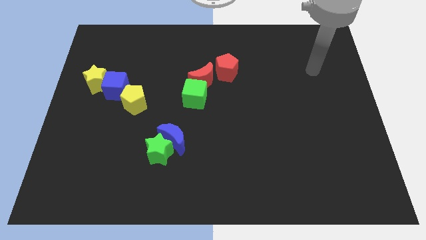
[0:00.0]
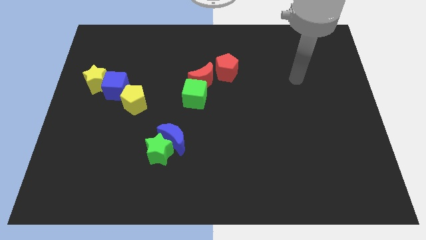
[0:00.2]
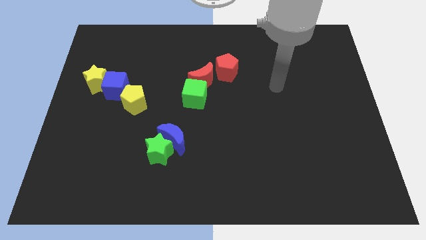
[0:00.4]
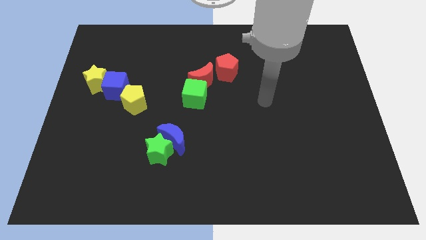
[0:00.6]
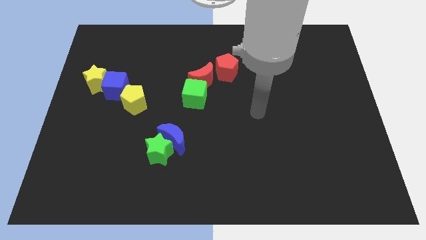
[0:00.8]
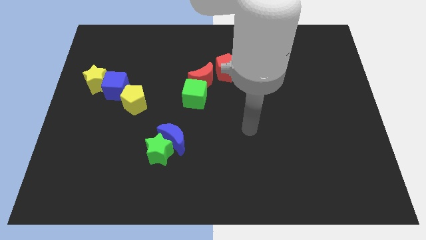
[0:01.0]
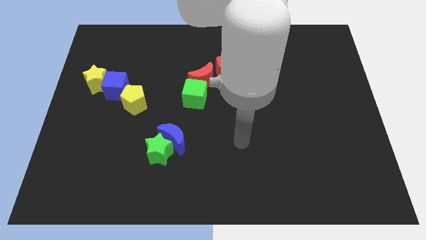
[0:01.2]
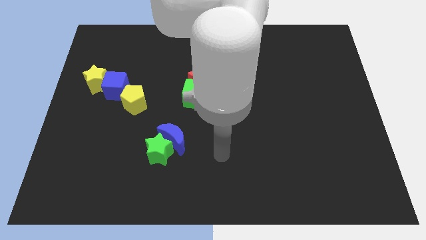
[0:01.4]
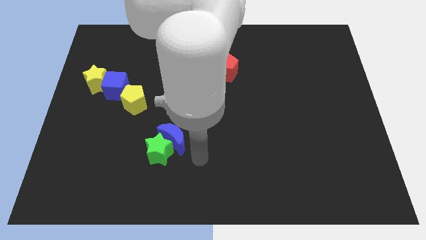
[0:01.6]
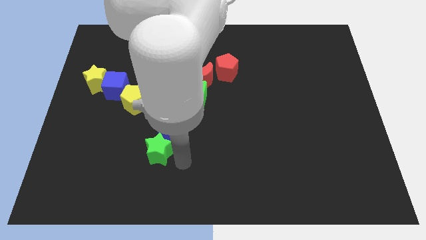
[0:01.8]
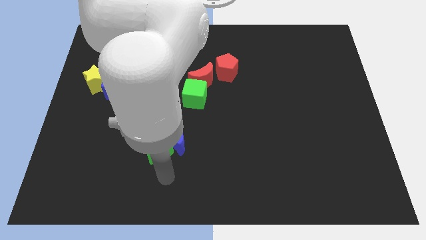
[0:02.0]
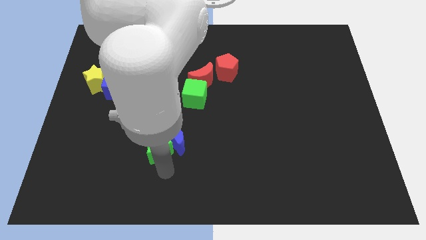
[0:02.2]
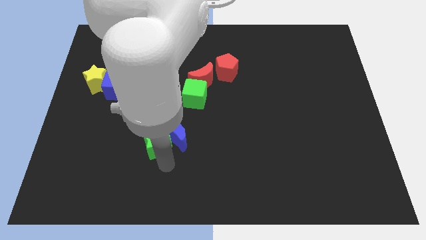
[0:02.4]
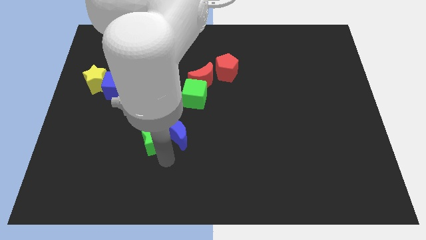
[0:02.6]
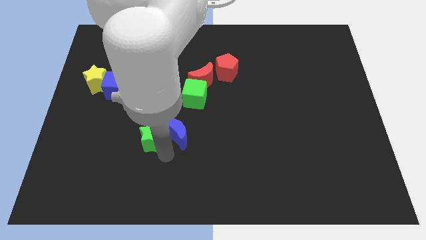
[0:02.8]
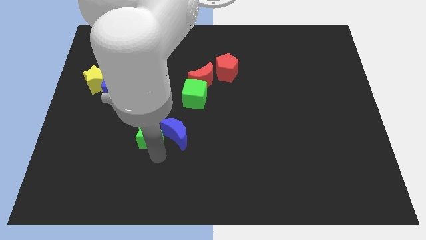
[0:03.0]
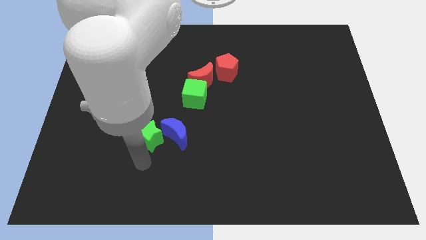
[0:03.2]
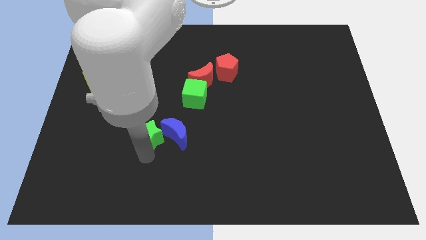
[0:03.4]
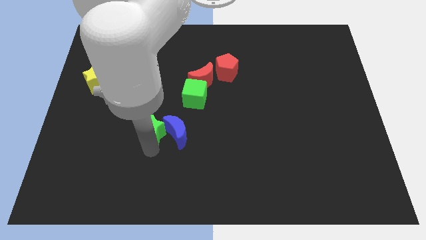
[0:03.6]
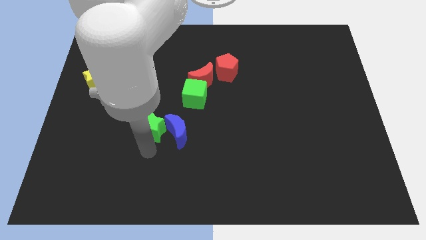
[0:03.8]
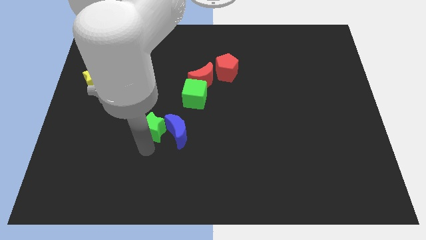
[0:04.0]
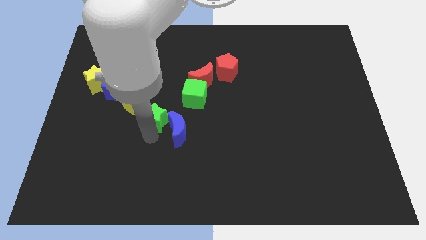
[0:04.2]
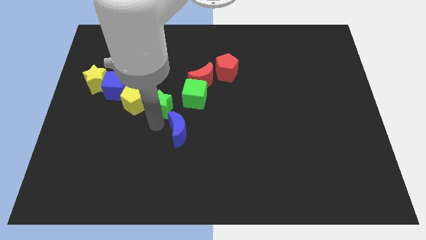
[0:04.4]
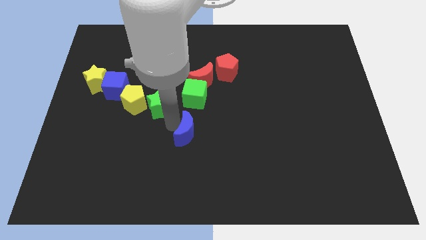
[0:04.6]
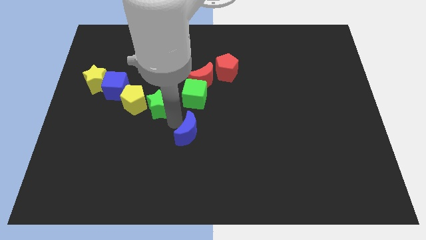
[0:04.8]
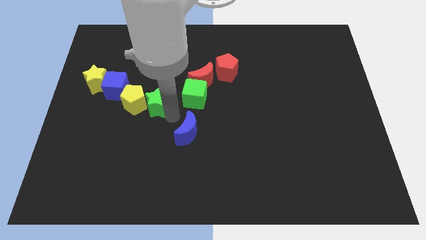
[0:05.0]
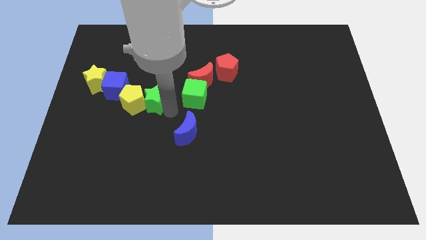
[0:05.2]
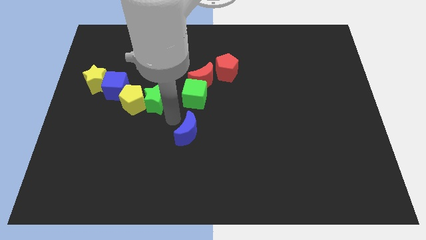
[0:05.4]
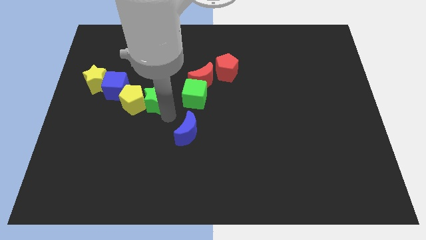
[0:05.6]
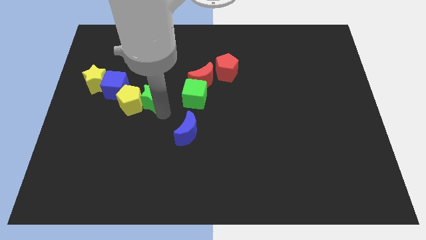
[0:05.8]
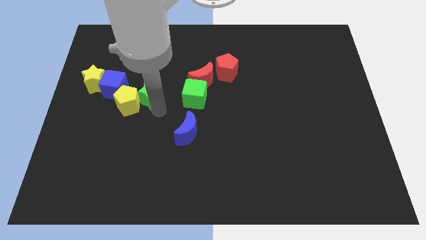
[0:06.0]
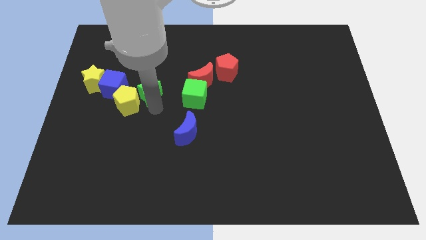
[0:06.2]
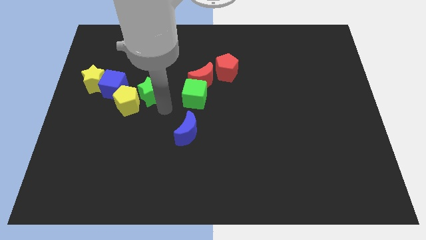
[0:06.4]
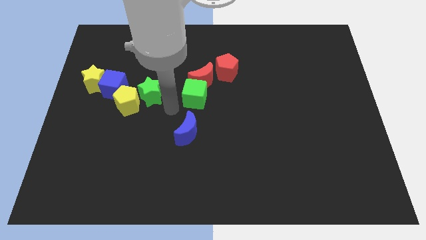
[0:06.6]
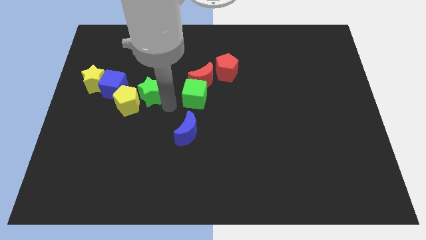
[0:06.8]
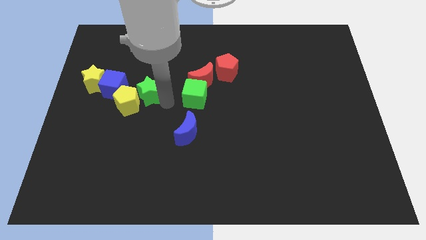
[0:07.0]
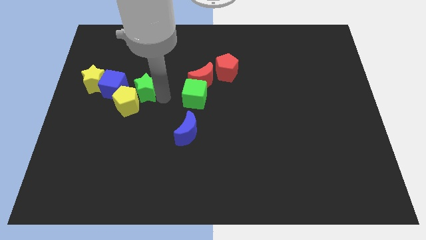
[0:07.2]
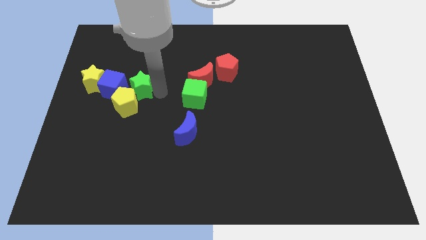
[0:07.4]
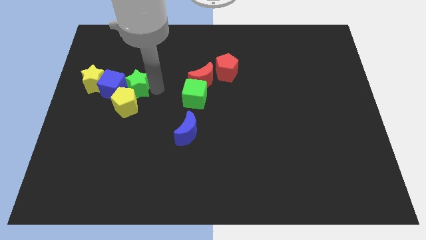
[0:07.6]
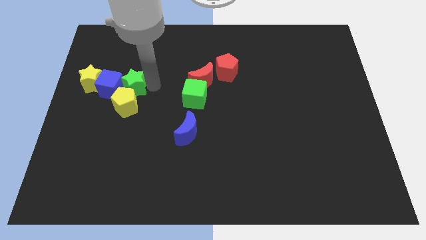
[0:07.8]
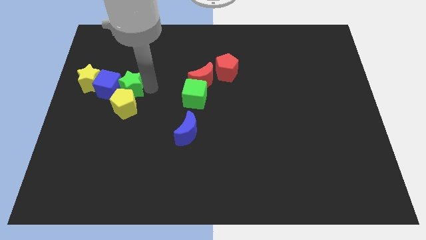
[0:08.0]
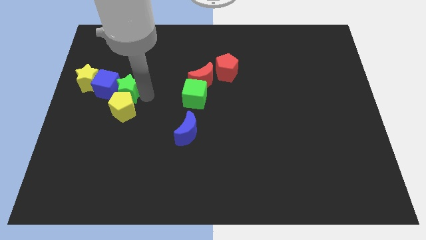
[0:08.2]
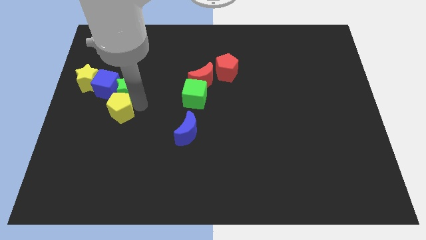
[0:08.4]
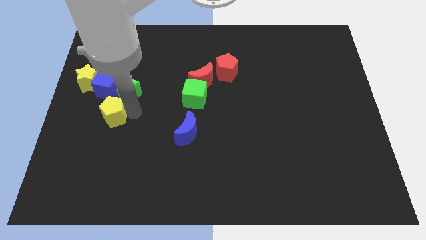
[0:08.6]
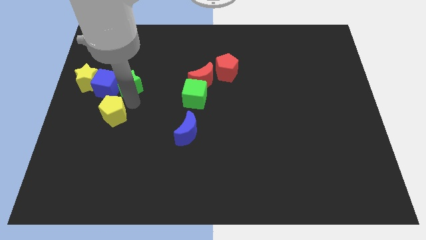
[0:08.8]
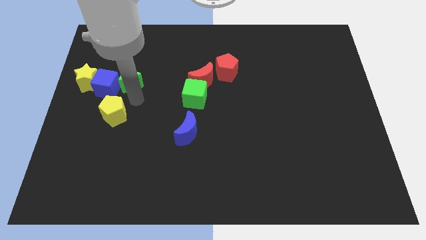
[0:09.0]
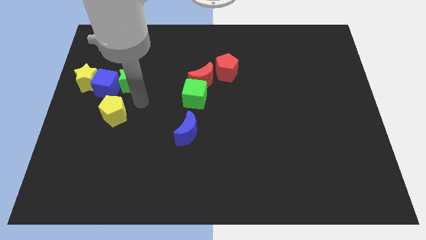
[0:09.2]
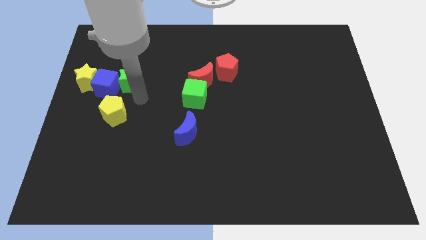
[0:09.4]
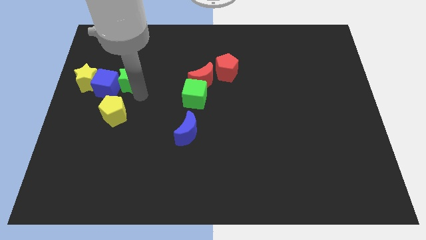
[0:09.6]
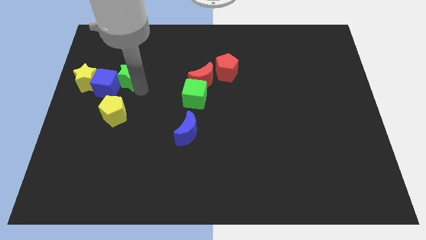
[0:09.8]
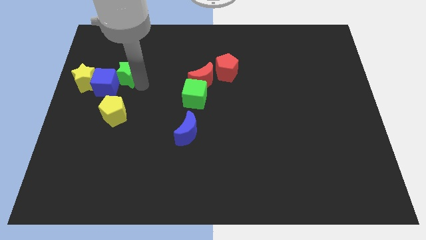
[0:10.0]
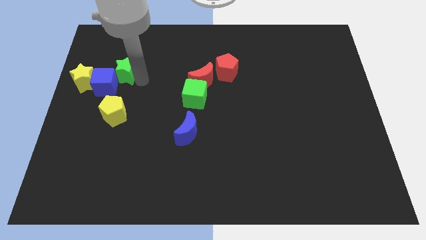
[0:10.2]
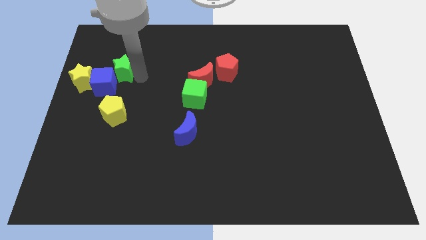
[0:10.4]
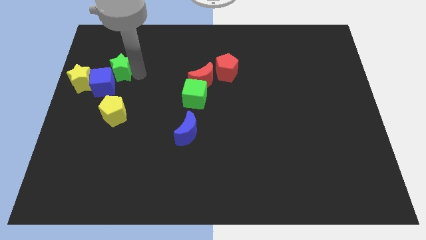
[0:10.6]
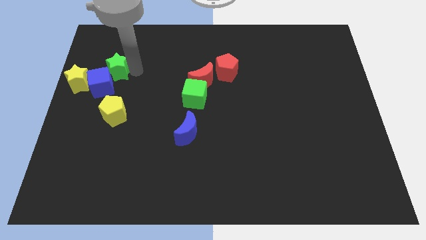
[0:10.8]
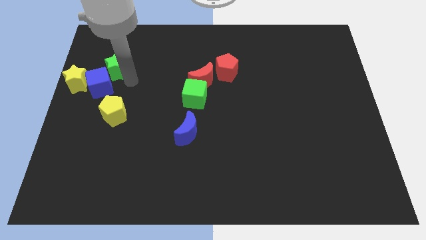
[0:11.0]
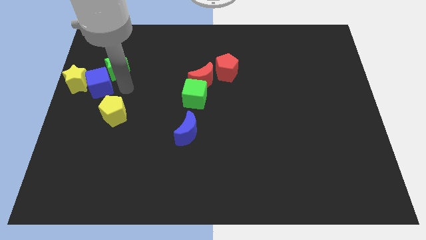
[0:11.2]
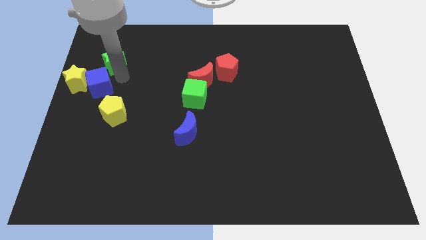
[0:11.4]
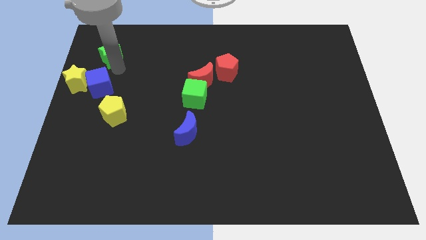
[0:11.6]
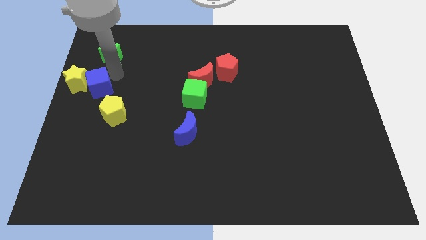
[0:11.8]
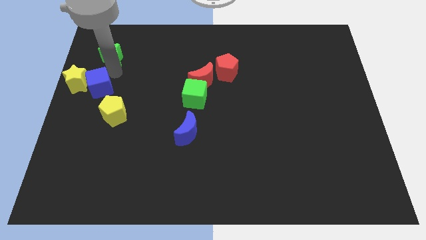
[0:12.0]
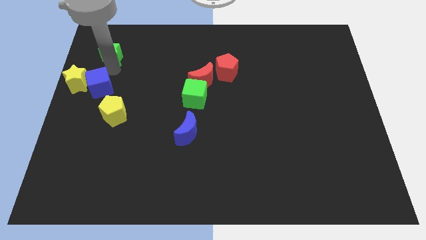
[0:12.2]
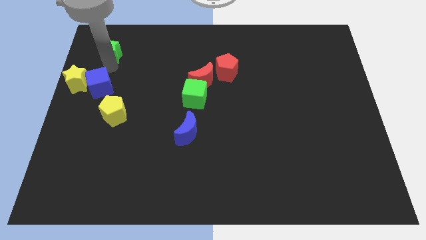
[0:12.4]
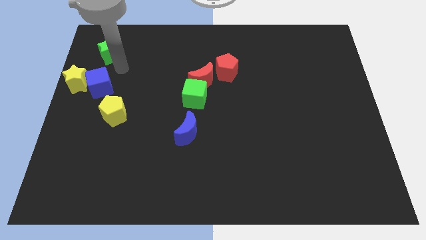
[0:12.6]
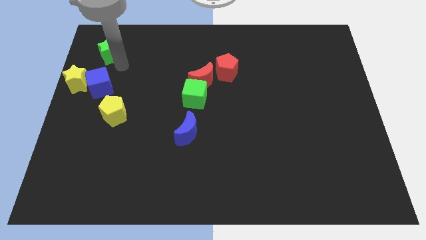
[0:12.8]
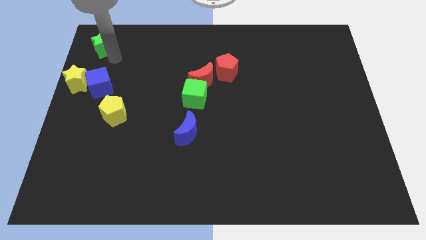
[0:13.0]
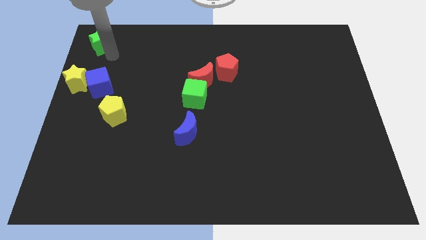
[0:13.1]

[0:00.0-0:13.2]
push the green star to the top left corner
